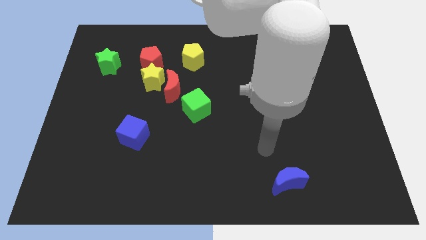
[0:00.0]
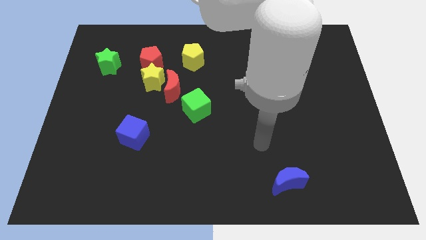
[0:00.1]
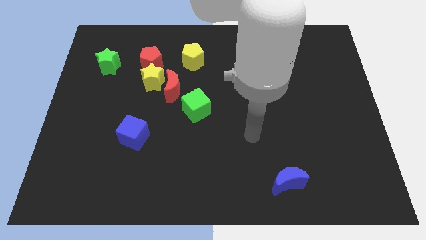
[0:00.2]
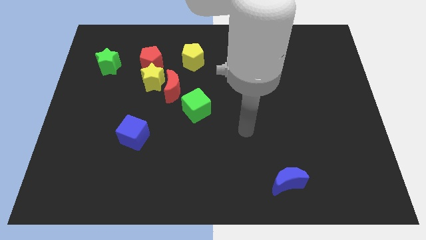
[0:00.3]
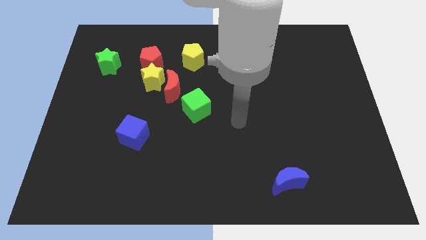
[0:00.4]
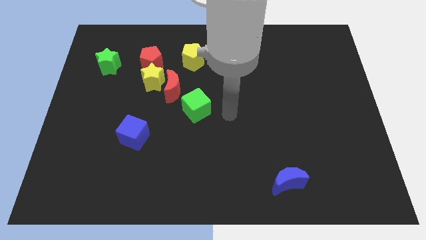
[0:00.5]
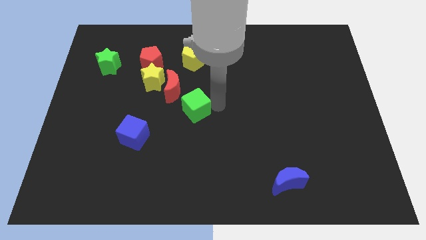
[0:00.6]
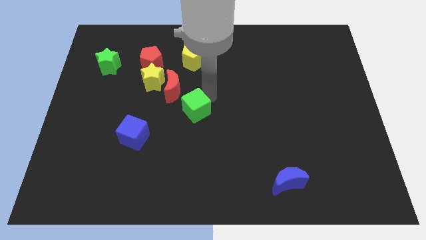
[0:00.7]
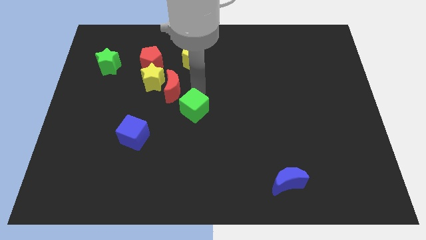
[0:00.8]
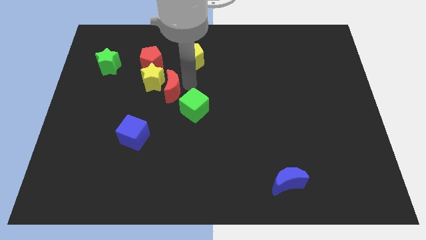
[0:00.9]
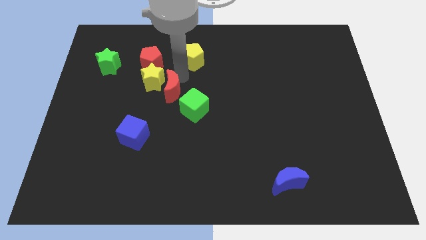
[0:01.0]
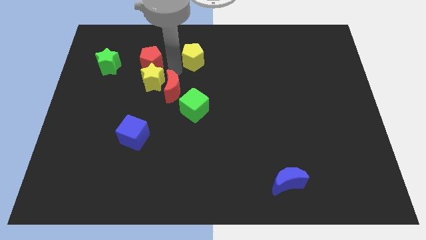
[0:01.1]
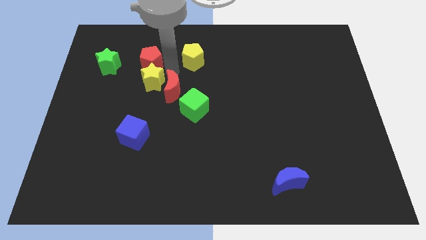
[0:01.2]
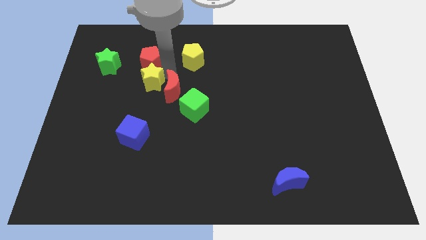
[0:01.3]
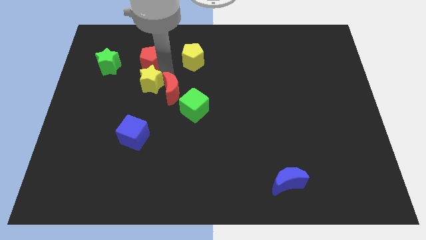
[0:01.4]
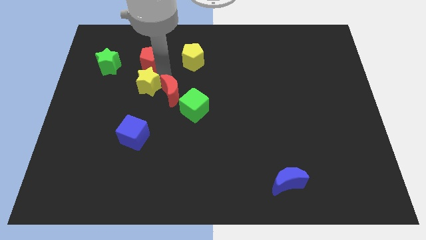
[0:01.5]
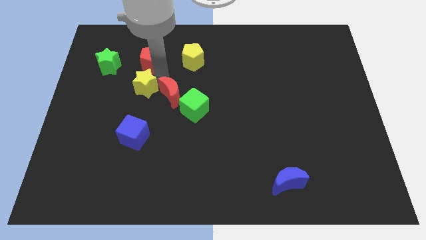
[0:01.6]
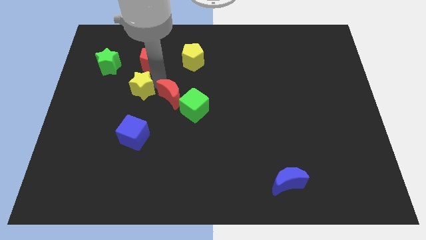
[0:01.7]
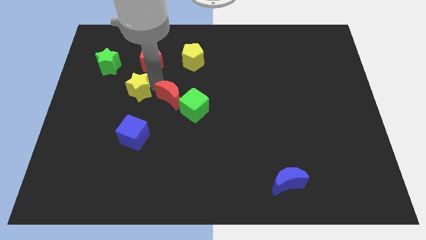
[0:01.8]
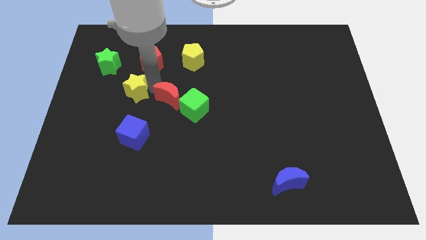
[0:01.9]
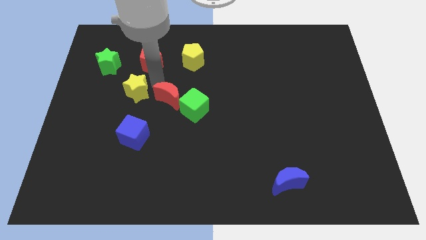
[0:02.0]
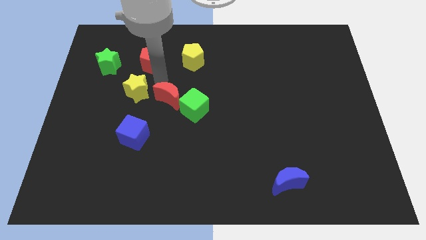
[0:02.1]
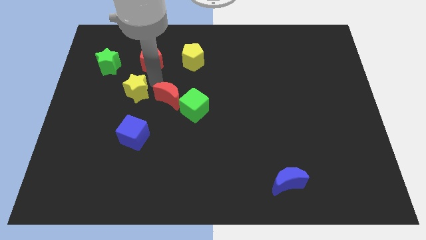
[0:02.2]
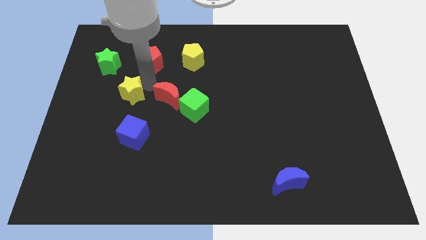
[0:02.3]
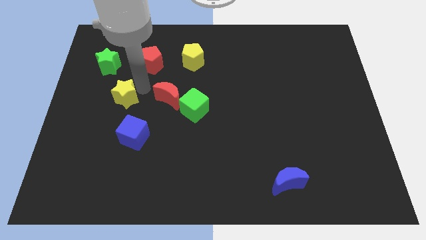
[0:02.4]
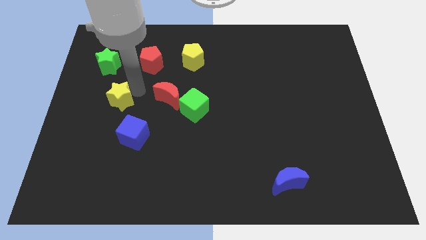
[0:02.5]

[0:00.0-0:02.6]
pull the yellow star apart from the red moon and red pentagon

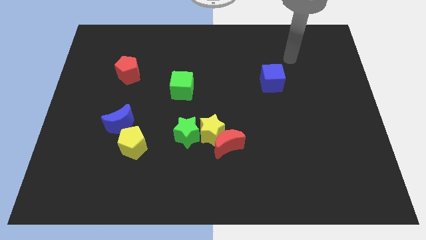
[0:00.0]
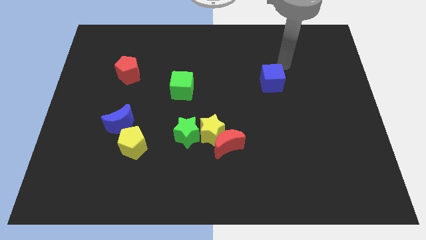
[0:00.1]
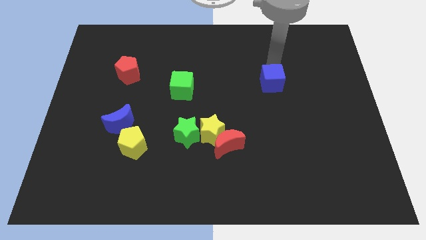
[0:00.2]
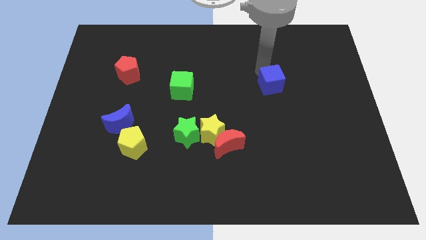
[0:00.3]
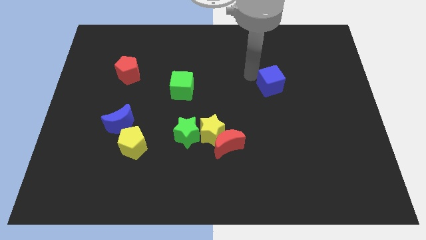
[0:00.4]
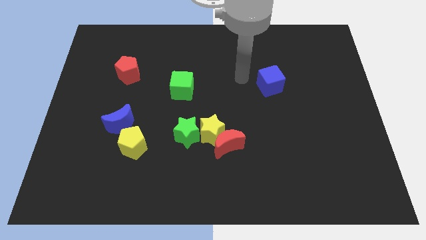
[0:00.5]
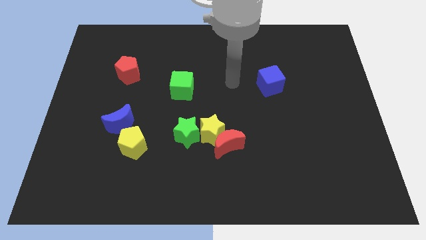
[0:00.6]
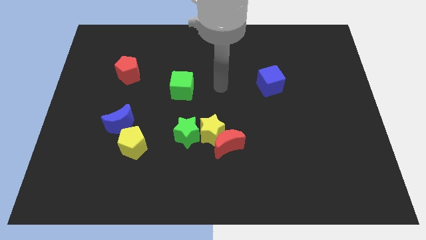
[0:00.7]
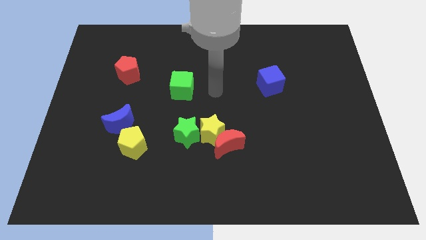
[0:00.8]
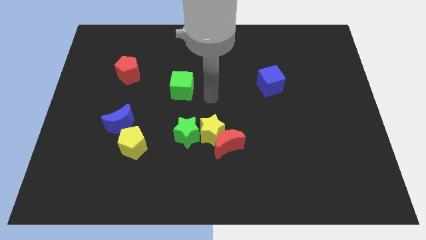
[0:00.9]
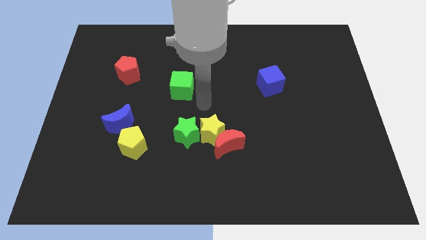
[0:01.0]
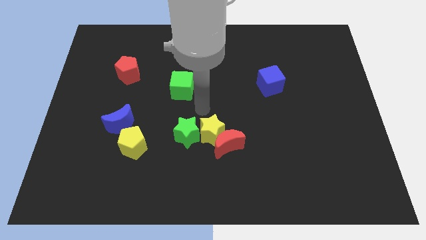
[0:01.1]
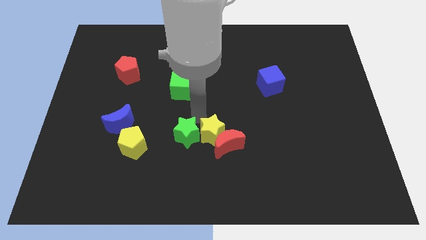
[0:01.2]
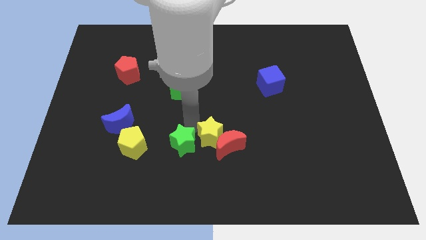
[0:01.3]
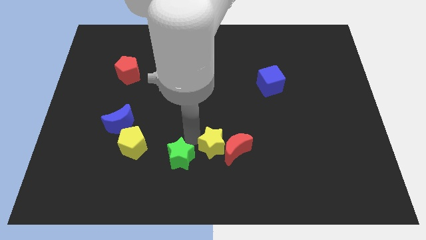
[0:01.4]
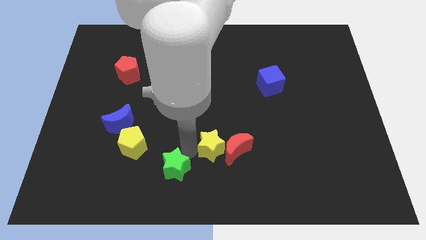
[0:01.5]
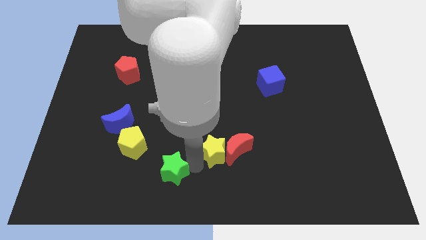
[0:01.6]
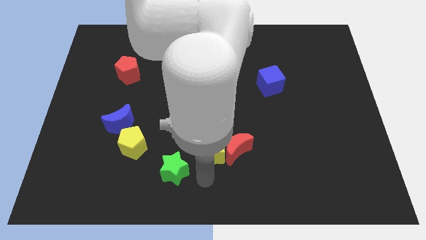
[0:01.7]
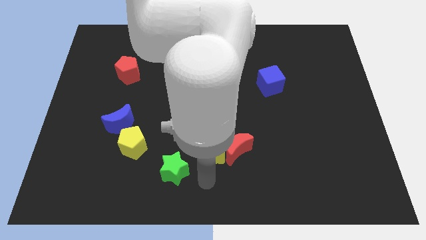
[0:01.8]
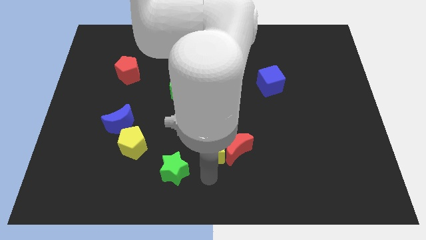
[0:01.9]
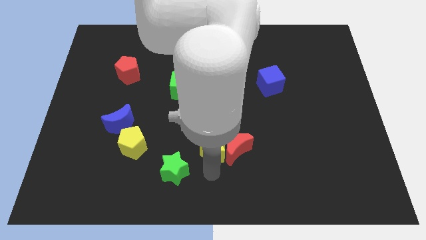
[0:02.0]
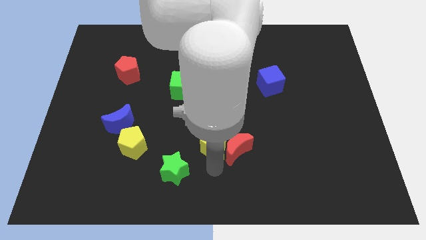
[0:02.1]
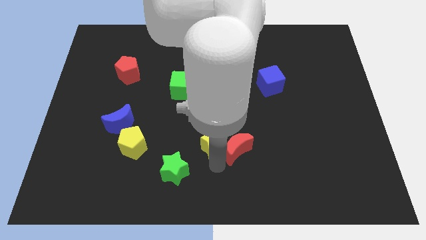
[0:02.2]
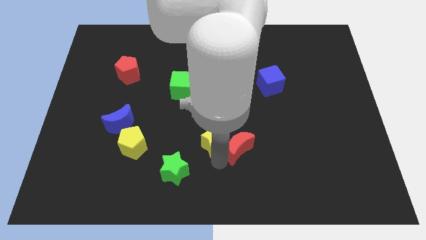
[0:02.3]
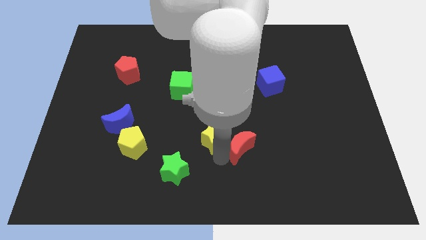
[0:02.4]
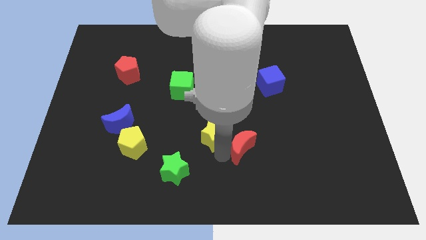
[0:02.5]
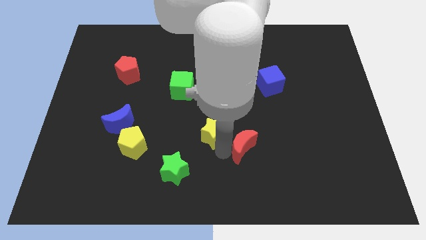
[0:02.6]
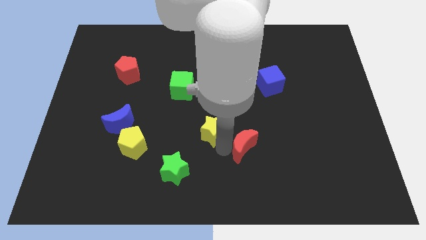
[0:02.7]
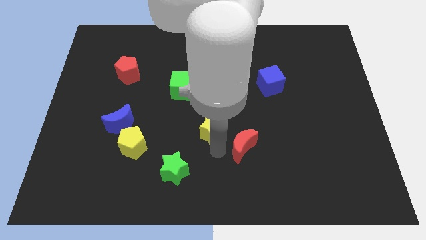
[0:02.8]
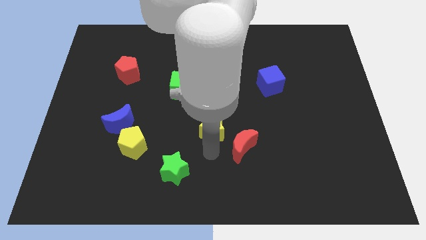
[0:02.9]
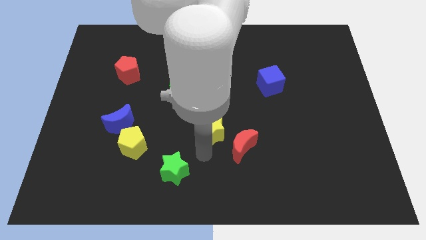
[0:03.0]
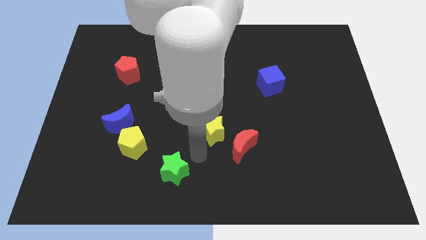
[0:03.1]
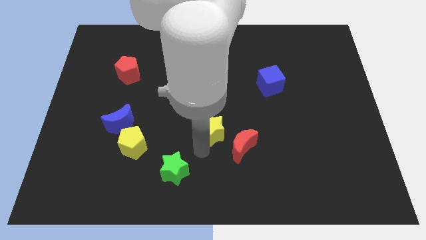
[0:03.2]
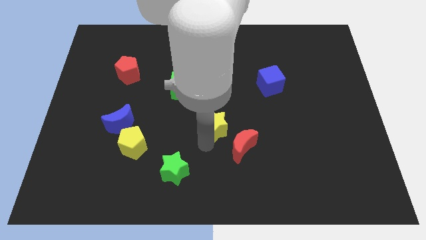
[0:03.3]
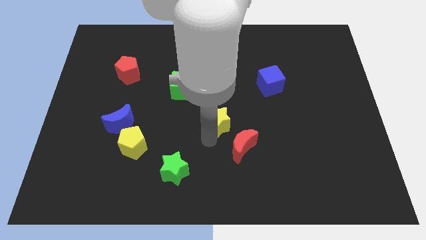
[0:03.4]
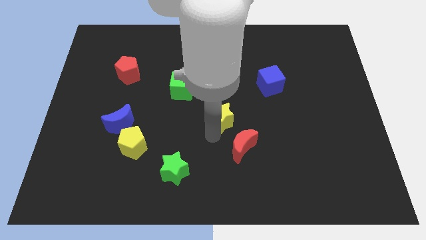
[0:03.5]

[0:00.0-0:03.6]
move the yellow star away from the red moon and green star

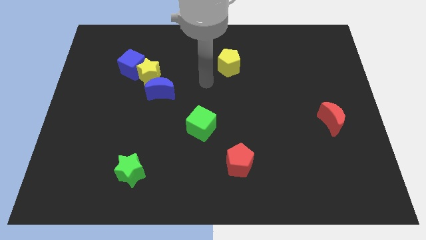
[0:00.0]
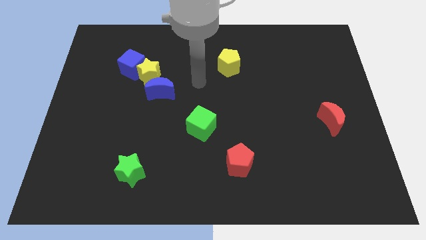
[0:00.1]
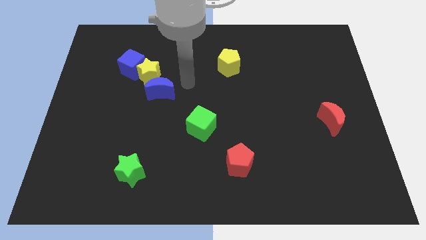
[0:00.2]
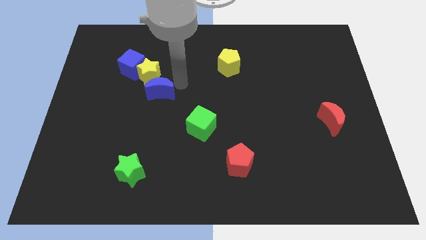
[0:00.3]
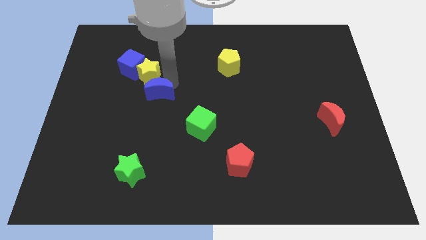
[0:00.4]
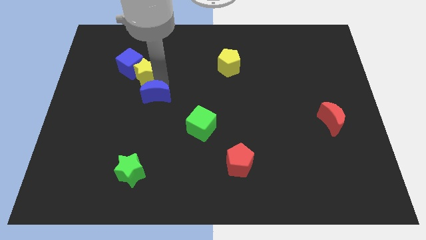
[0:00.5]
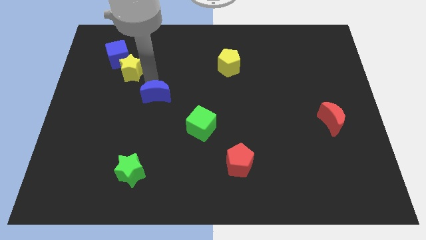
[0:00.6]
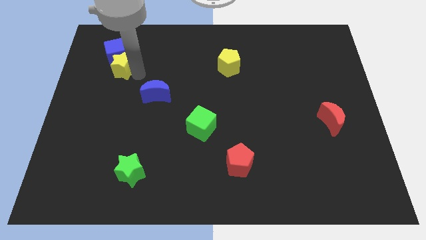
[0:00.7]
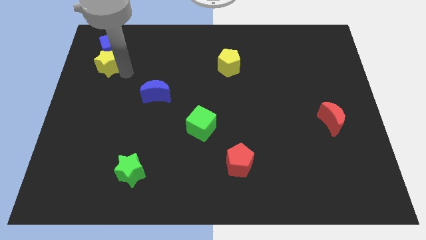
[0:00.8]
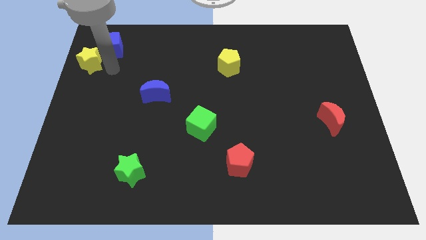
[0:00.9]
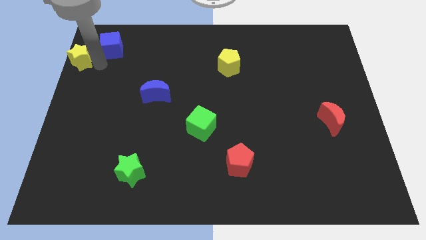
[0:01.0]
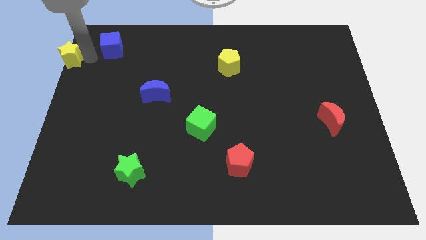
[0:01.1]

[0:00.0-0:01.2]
pull the blue cube apart from the yellow star

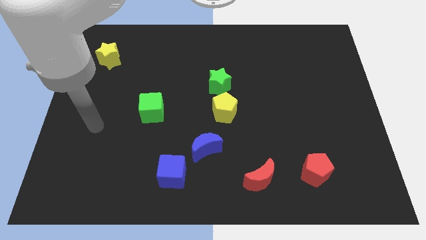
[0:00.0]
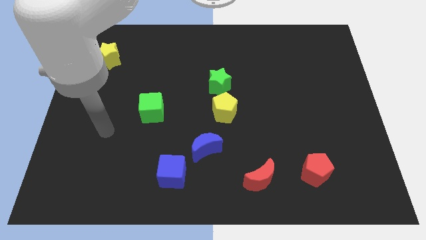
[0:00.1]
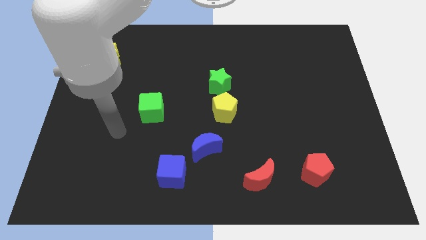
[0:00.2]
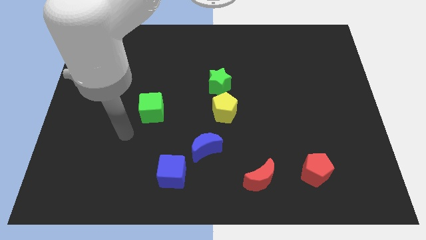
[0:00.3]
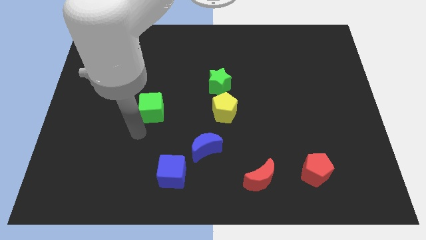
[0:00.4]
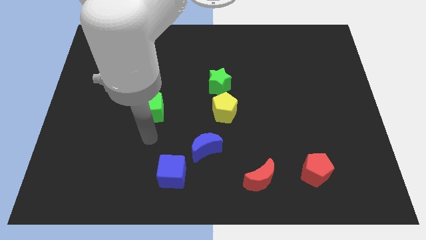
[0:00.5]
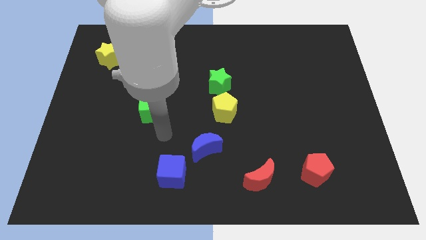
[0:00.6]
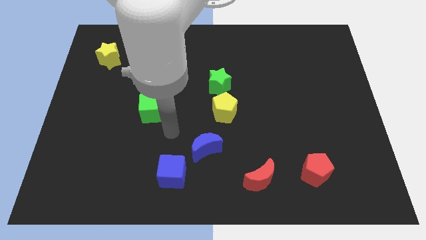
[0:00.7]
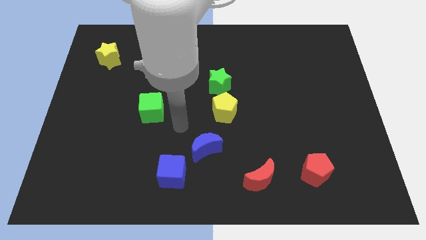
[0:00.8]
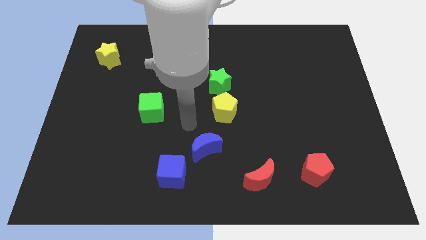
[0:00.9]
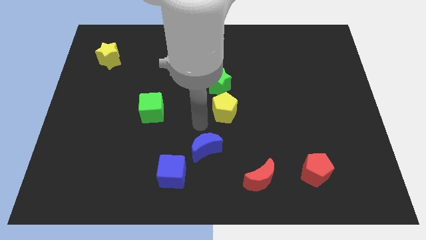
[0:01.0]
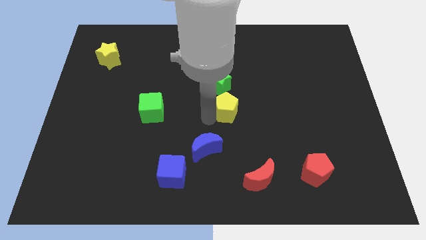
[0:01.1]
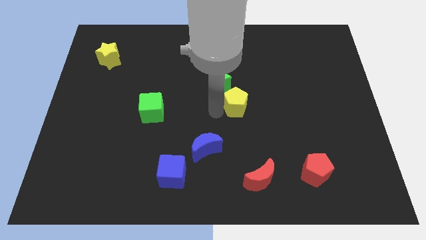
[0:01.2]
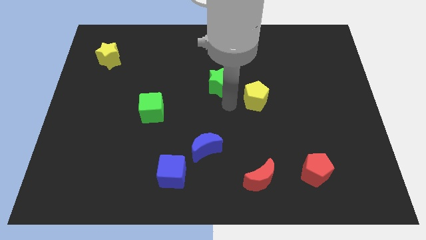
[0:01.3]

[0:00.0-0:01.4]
separate the green star from the yellow pentagon

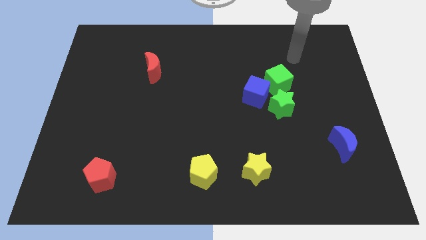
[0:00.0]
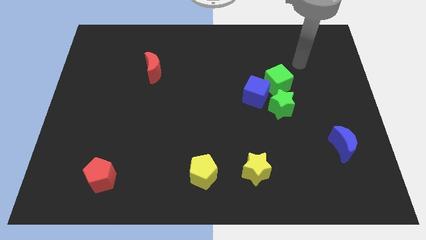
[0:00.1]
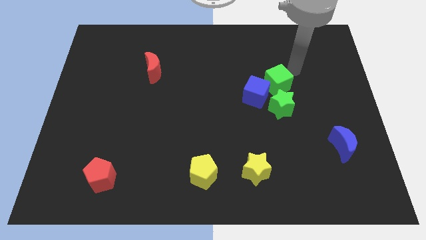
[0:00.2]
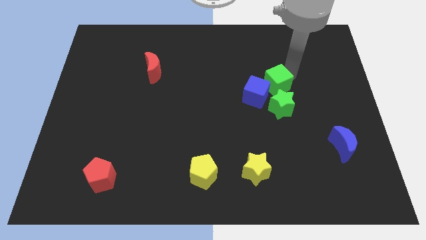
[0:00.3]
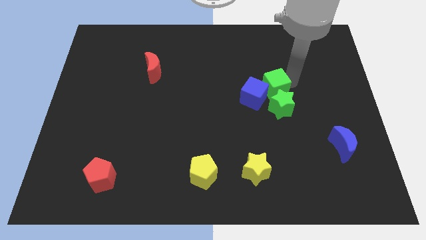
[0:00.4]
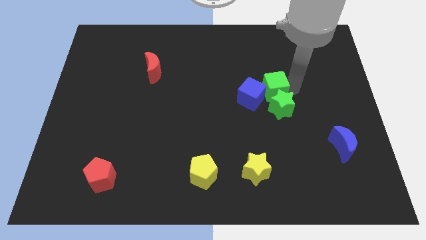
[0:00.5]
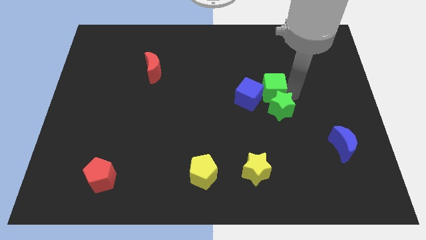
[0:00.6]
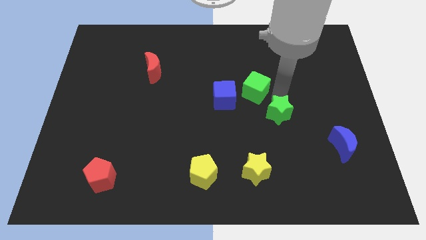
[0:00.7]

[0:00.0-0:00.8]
separate the blue cube from the green star and green cube
